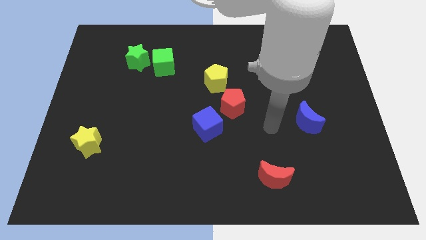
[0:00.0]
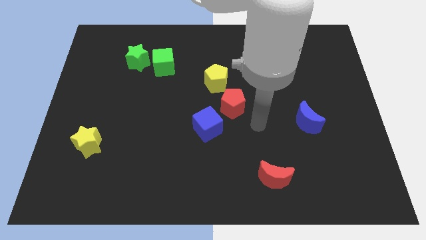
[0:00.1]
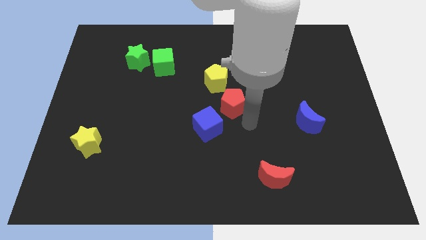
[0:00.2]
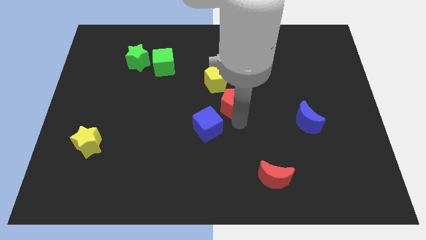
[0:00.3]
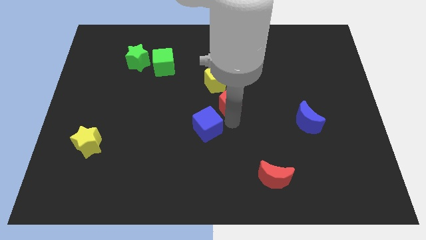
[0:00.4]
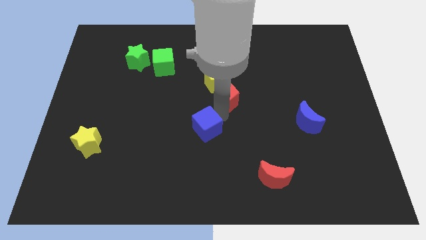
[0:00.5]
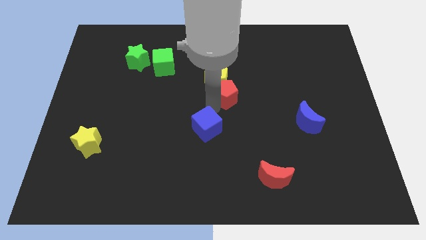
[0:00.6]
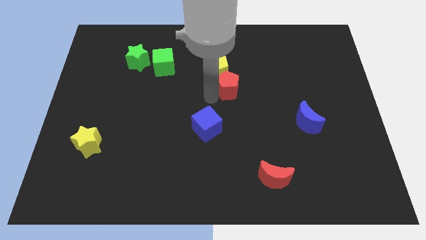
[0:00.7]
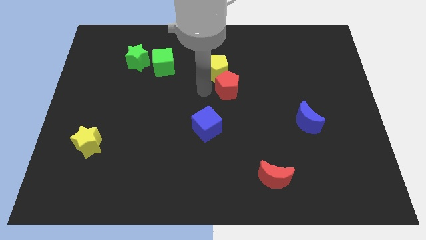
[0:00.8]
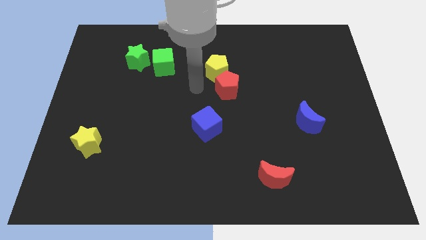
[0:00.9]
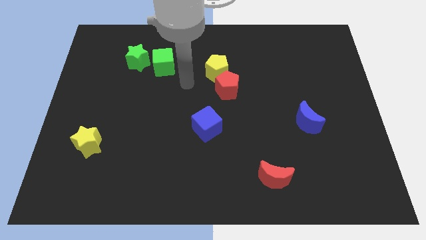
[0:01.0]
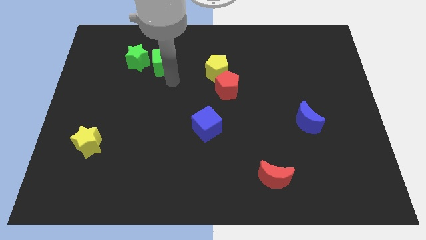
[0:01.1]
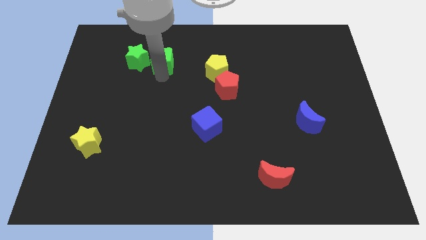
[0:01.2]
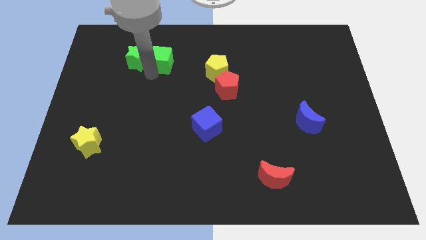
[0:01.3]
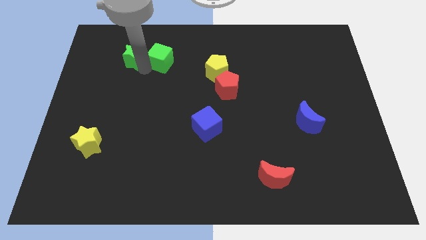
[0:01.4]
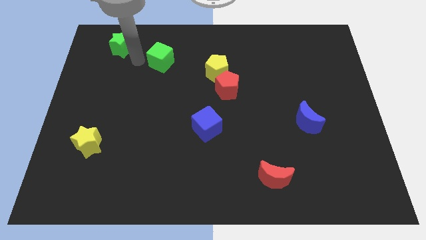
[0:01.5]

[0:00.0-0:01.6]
move the green cube away from the green star

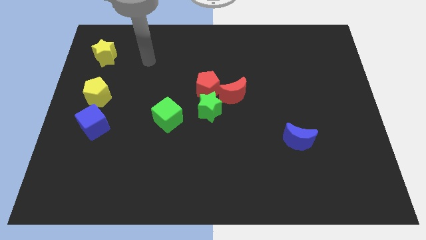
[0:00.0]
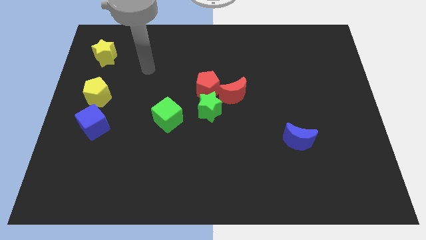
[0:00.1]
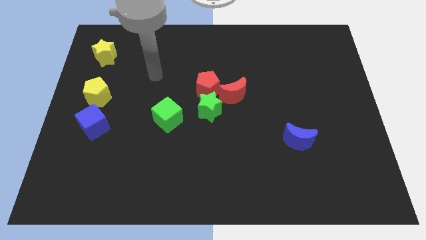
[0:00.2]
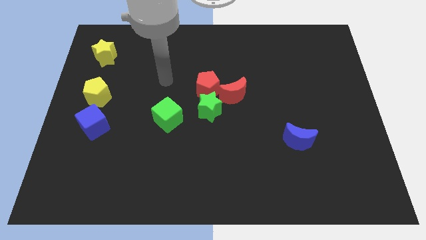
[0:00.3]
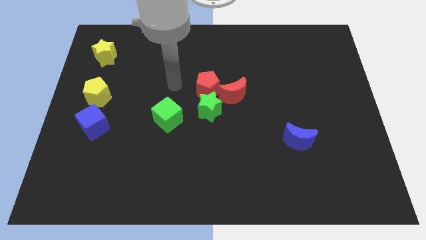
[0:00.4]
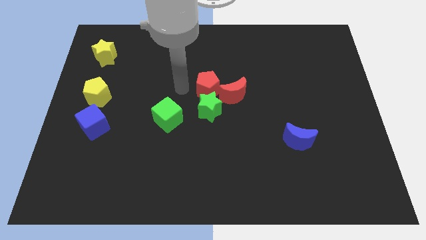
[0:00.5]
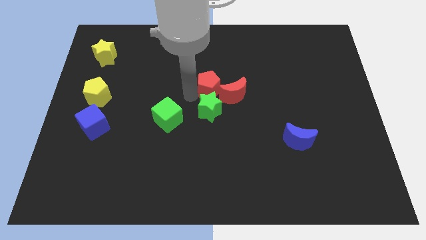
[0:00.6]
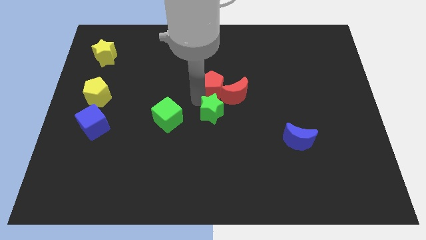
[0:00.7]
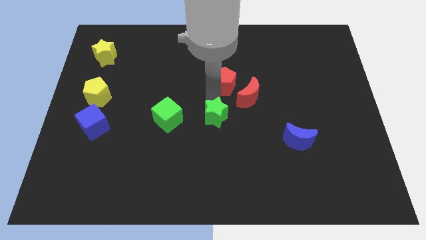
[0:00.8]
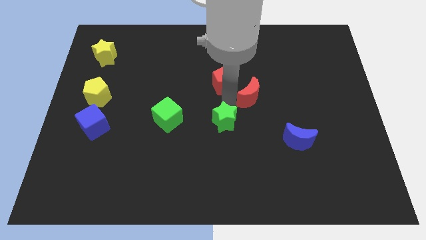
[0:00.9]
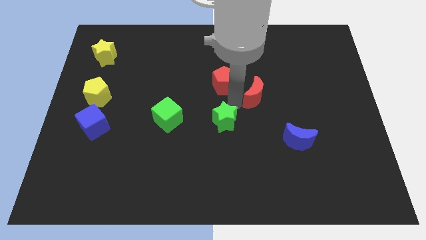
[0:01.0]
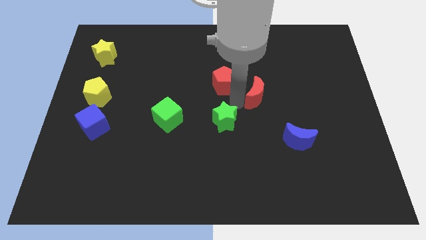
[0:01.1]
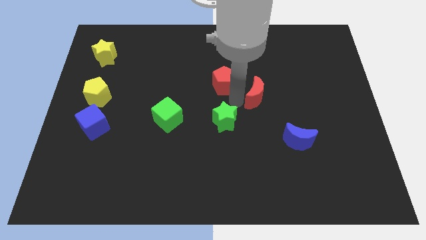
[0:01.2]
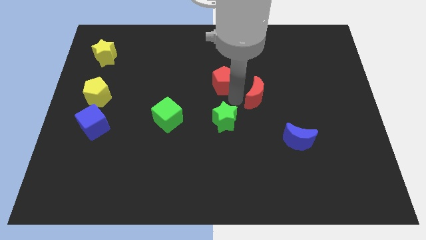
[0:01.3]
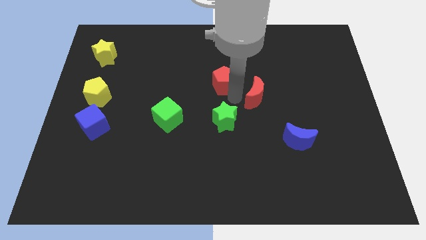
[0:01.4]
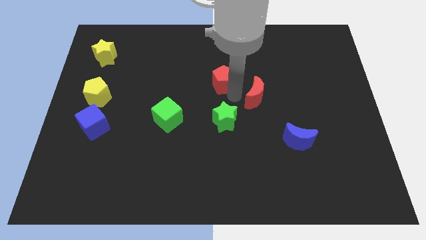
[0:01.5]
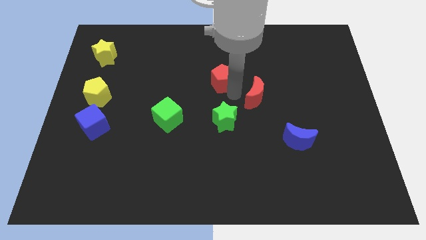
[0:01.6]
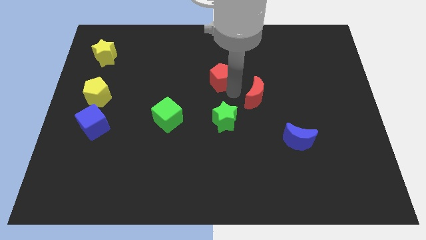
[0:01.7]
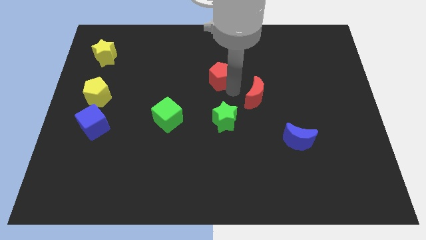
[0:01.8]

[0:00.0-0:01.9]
move the red pentagon away from the green star and red moon

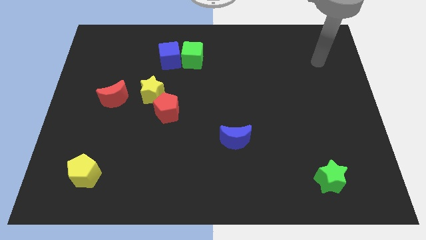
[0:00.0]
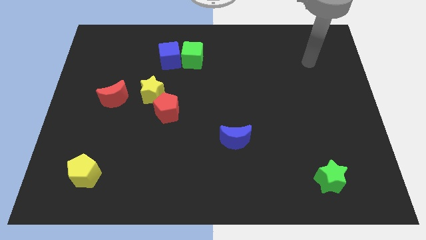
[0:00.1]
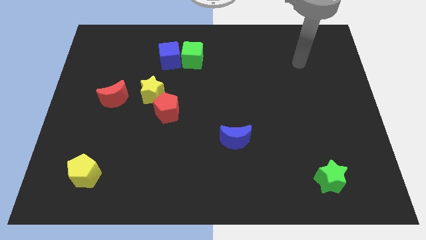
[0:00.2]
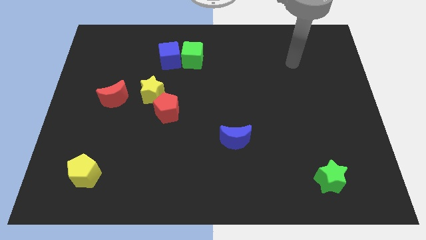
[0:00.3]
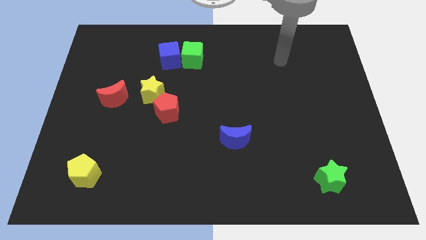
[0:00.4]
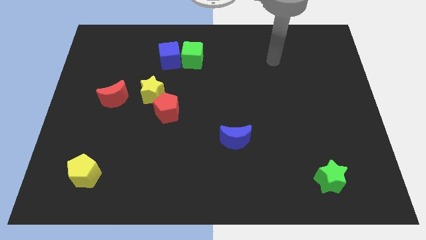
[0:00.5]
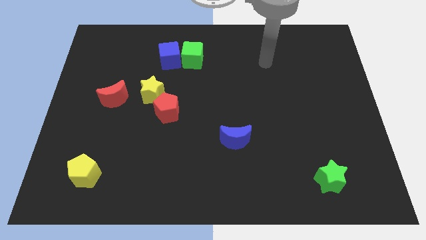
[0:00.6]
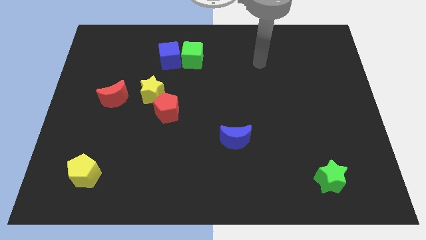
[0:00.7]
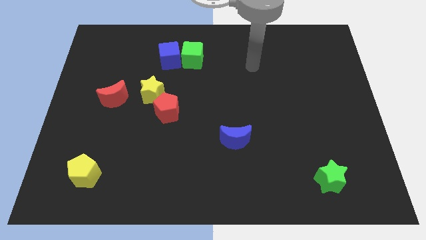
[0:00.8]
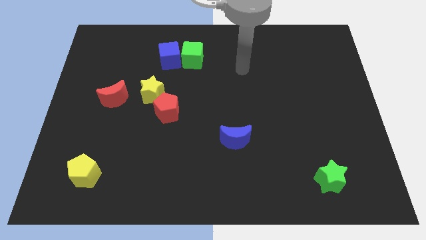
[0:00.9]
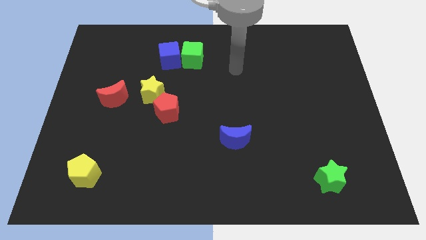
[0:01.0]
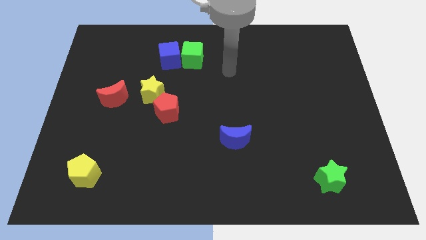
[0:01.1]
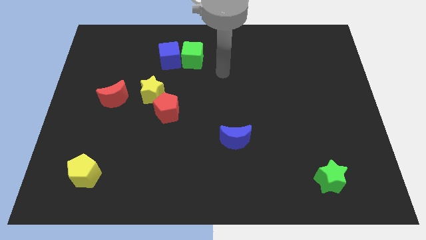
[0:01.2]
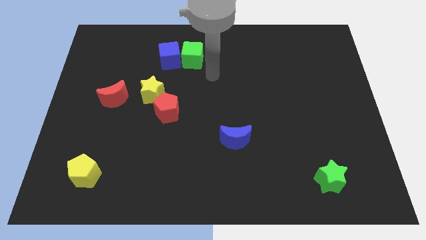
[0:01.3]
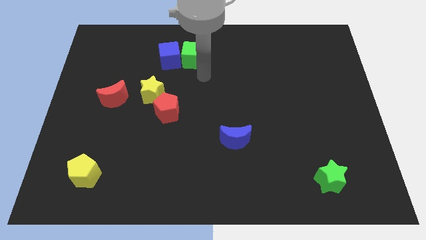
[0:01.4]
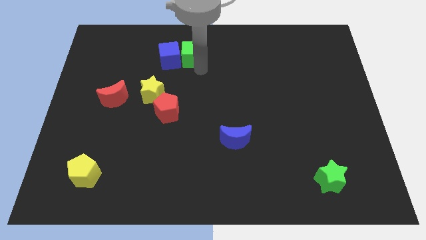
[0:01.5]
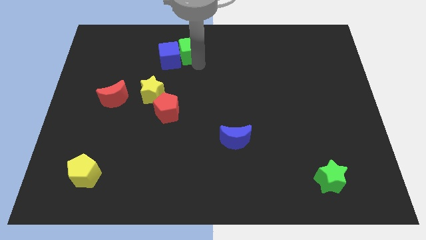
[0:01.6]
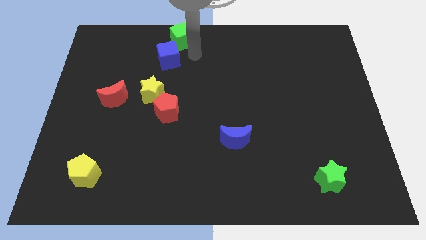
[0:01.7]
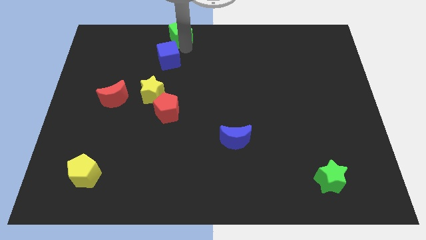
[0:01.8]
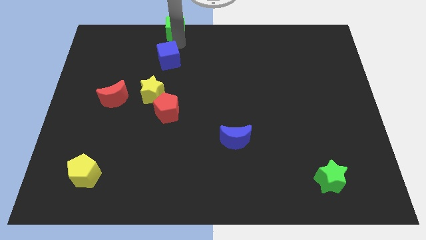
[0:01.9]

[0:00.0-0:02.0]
pull the blue cube apart from the green cube

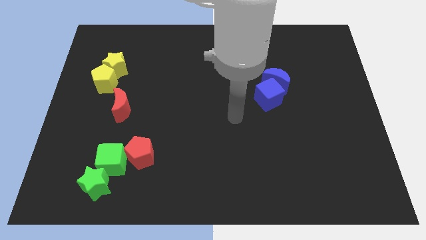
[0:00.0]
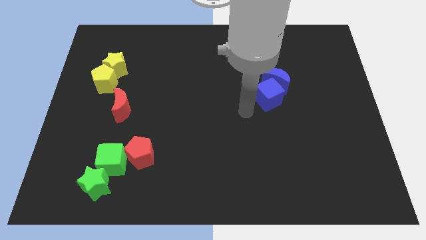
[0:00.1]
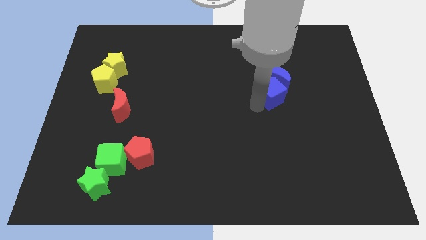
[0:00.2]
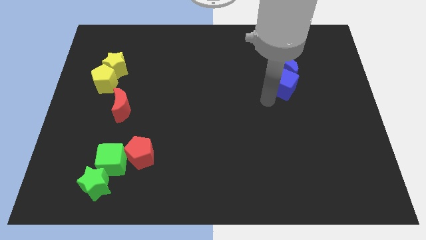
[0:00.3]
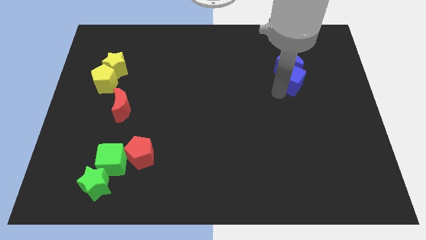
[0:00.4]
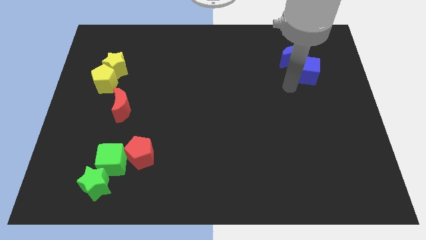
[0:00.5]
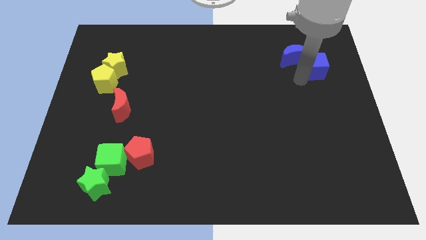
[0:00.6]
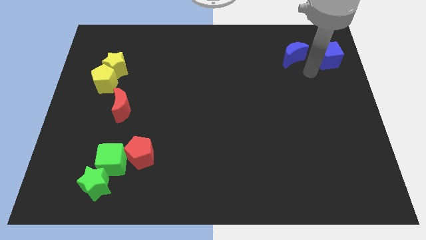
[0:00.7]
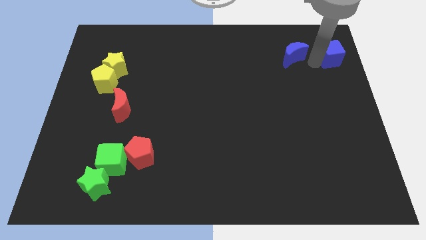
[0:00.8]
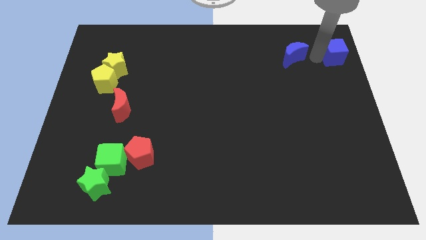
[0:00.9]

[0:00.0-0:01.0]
separate the blue moon from the blue cube

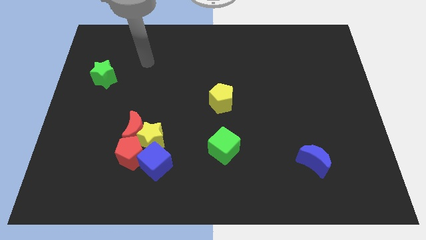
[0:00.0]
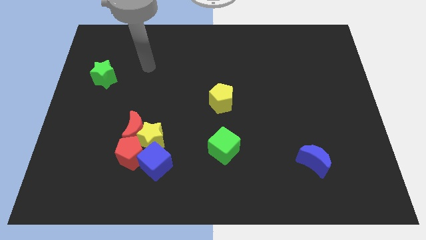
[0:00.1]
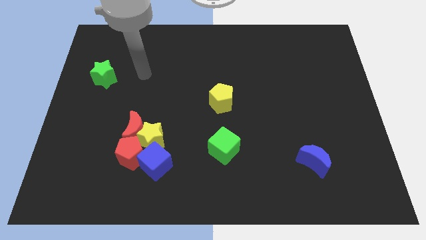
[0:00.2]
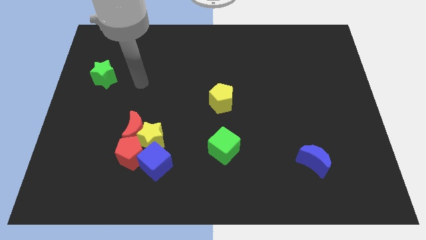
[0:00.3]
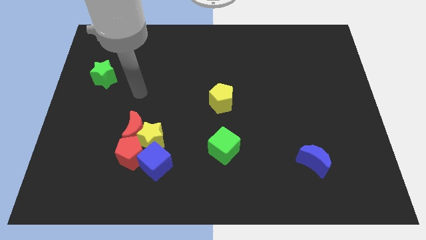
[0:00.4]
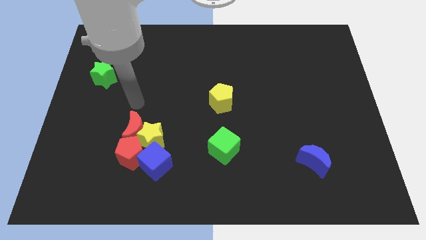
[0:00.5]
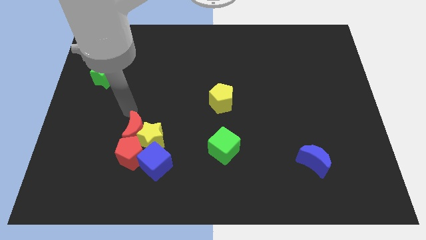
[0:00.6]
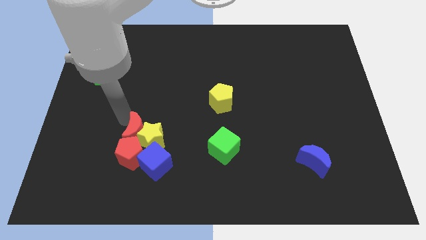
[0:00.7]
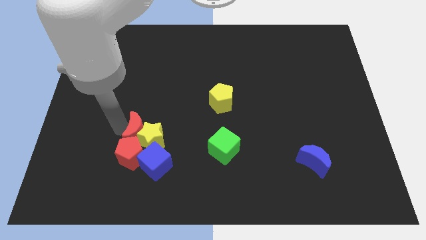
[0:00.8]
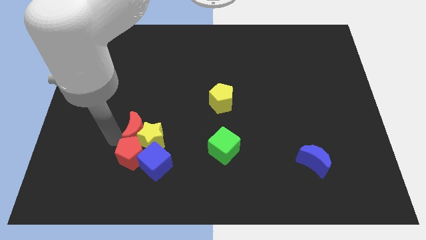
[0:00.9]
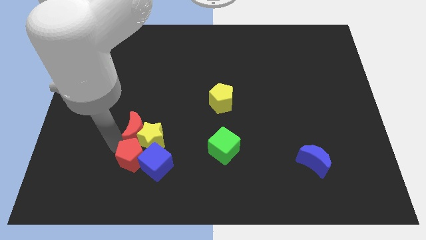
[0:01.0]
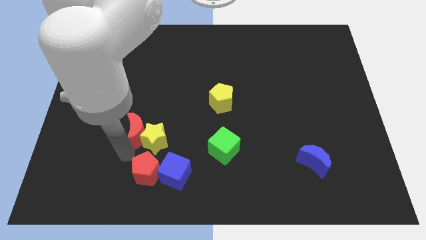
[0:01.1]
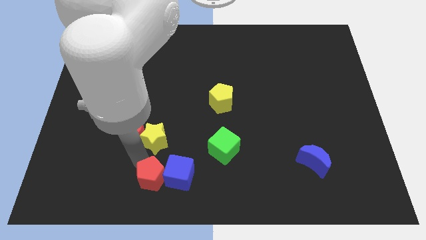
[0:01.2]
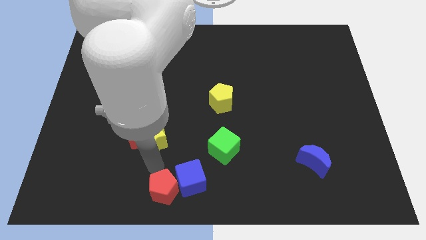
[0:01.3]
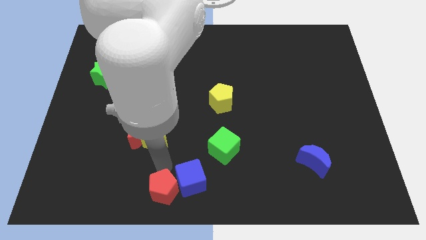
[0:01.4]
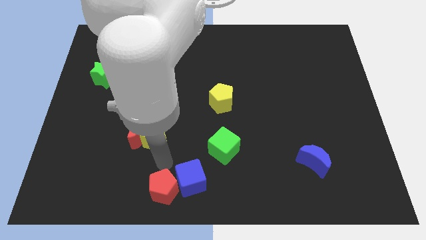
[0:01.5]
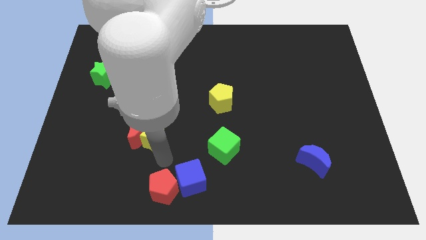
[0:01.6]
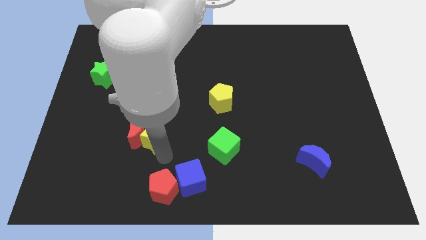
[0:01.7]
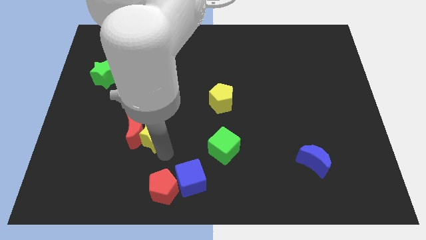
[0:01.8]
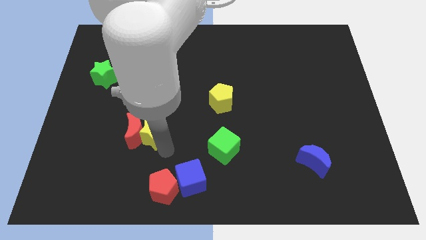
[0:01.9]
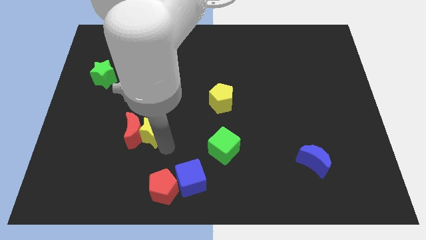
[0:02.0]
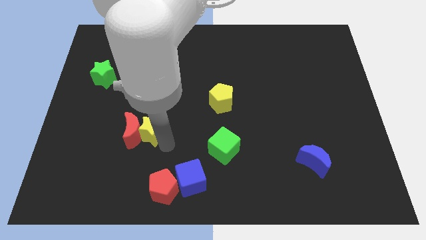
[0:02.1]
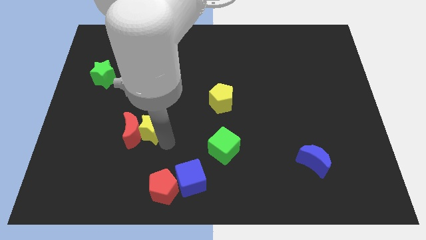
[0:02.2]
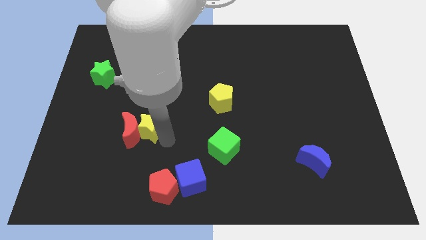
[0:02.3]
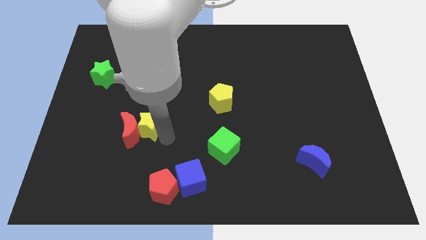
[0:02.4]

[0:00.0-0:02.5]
pull the yellow star apart from the red moon, red pentagon, and blue cube
